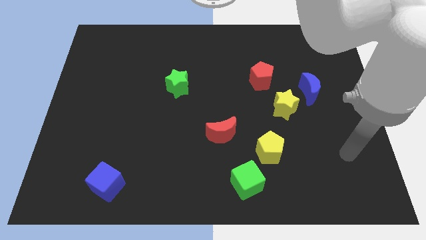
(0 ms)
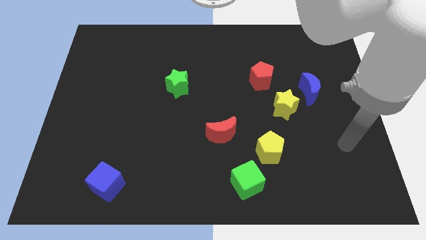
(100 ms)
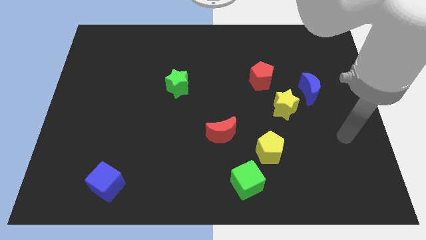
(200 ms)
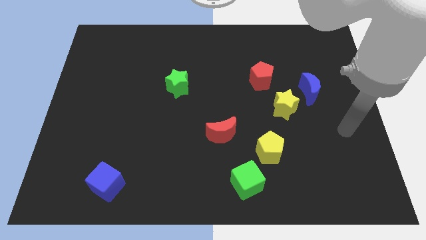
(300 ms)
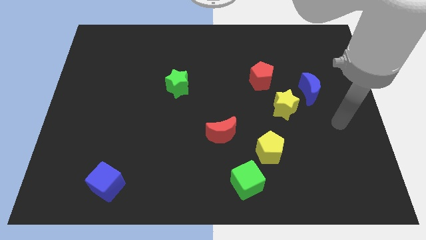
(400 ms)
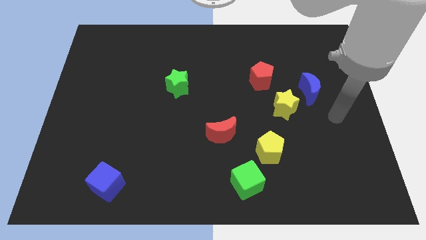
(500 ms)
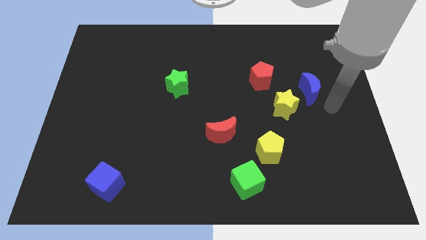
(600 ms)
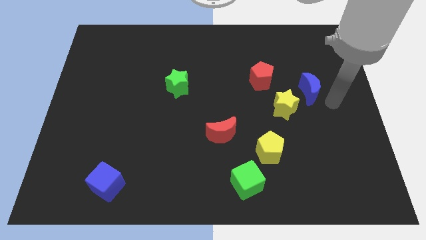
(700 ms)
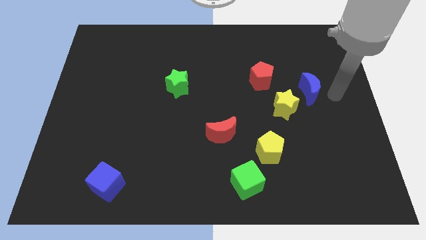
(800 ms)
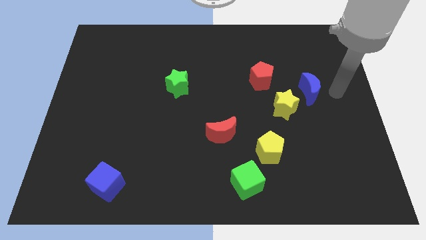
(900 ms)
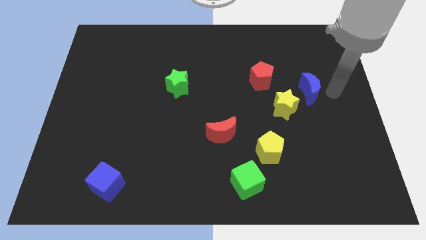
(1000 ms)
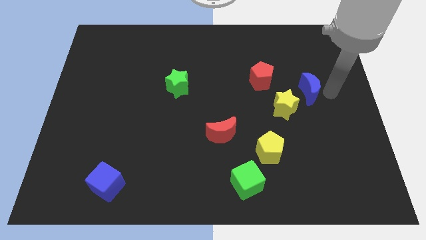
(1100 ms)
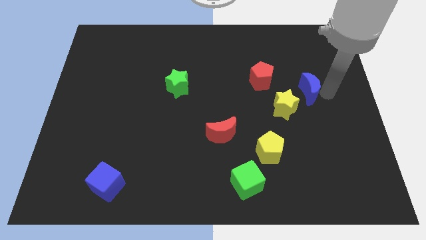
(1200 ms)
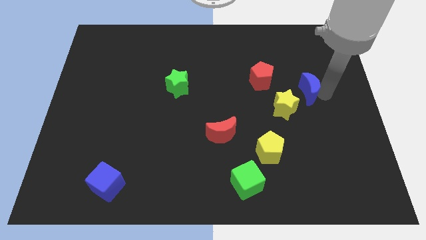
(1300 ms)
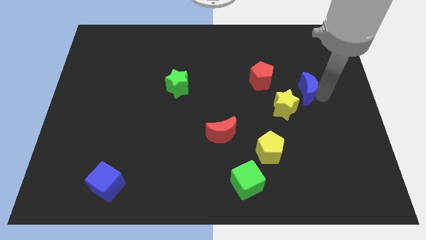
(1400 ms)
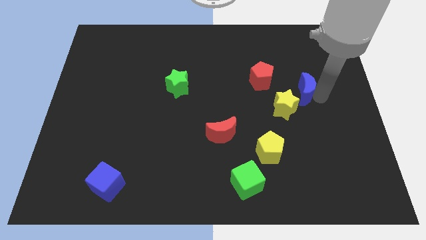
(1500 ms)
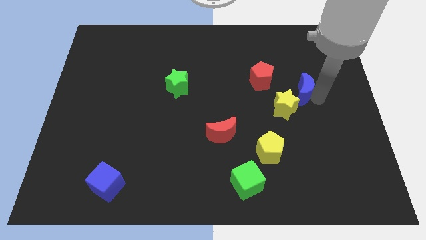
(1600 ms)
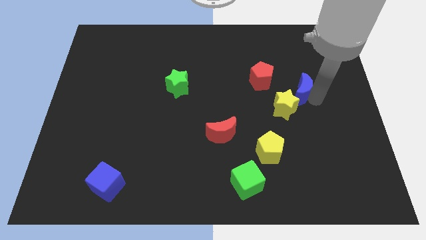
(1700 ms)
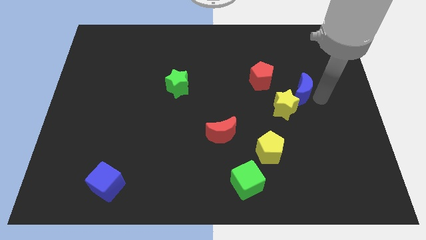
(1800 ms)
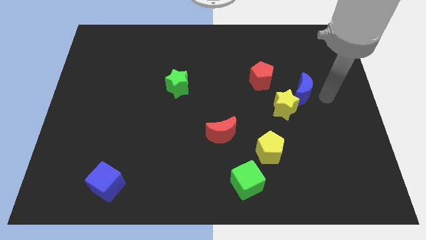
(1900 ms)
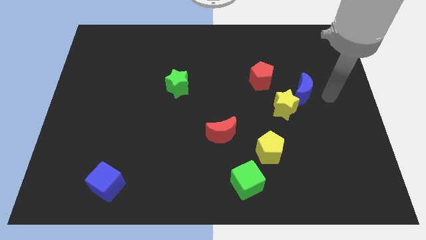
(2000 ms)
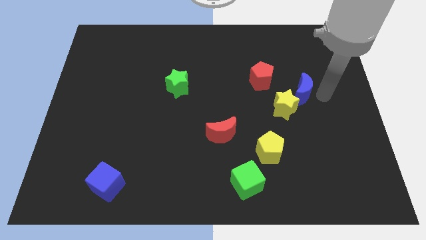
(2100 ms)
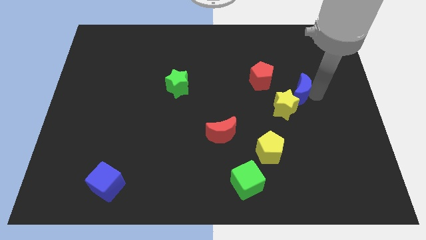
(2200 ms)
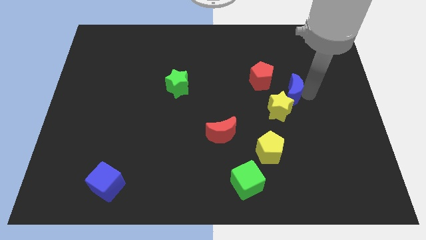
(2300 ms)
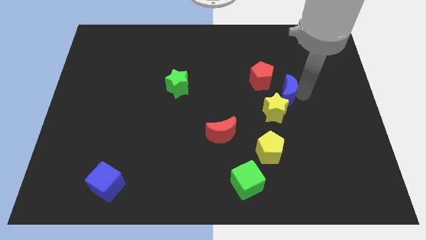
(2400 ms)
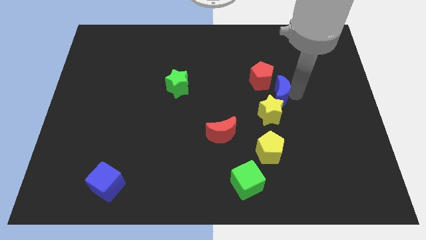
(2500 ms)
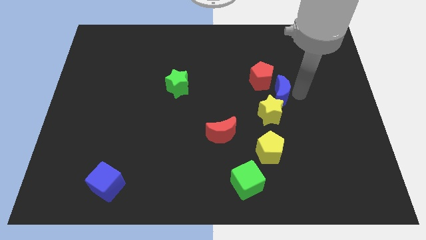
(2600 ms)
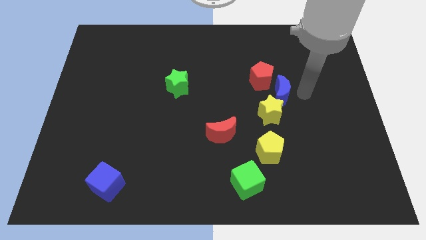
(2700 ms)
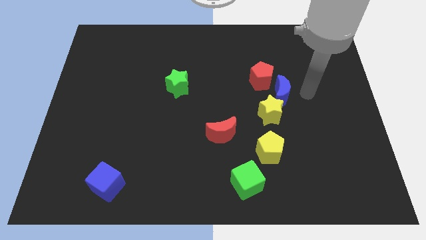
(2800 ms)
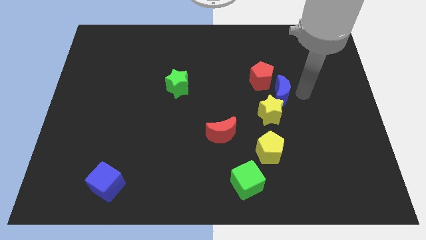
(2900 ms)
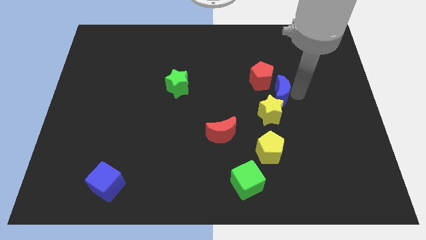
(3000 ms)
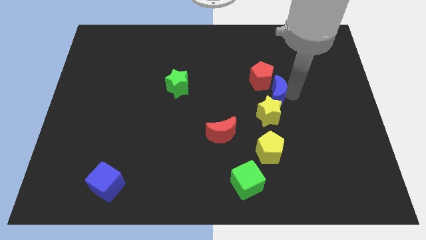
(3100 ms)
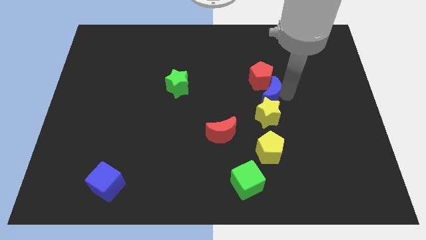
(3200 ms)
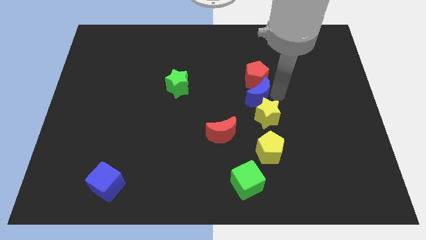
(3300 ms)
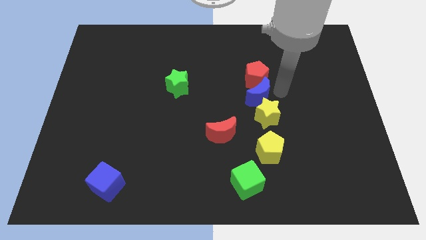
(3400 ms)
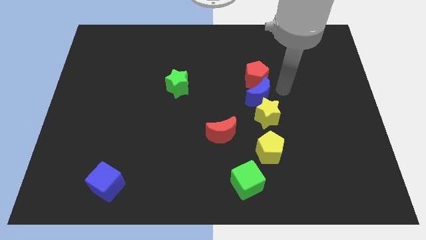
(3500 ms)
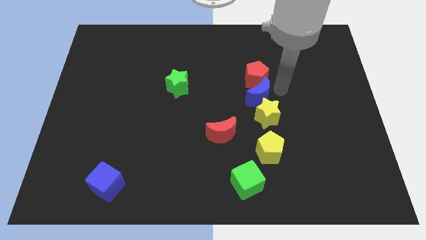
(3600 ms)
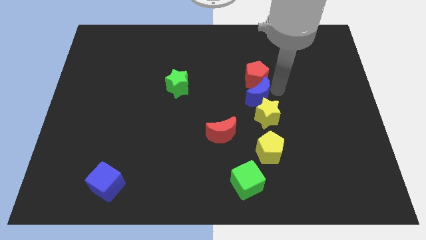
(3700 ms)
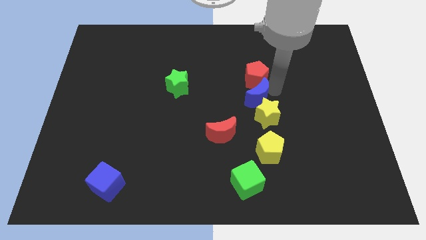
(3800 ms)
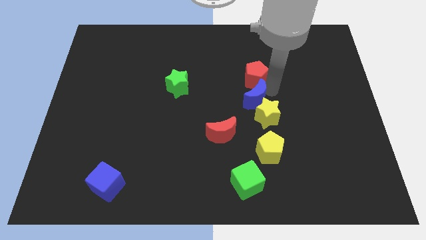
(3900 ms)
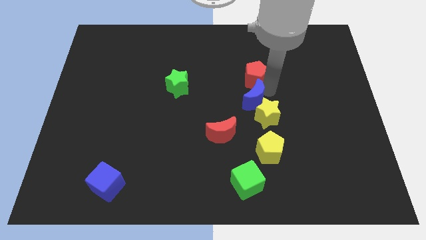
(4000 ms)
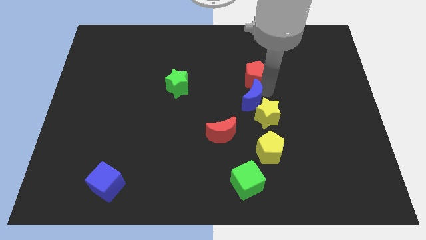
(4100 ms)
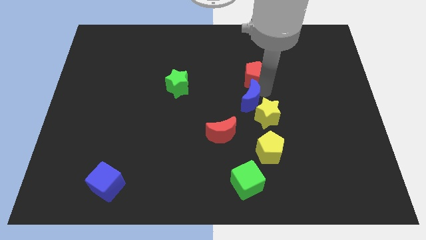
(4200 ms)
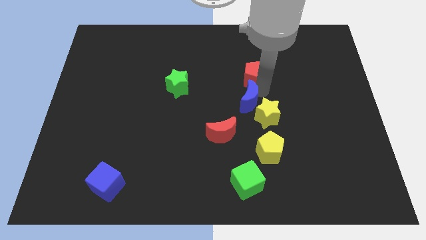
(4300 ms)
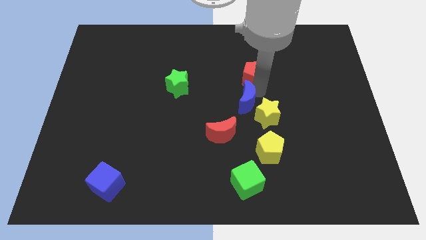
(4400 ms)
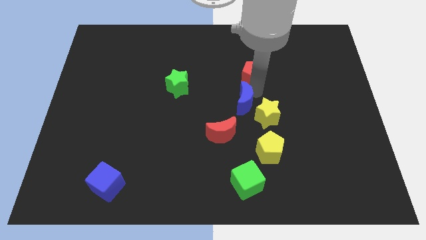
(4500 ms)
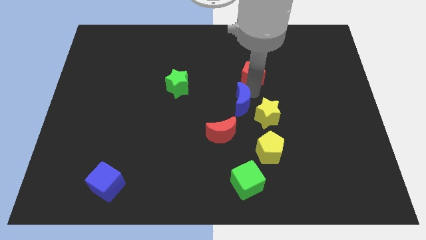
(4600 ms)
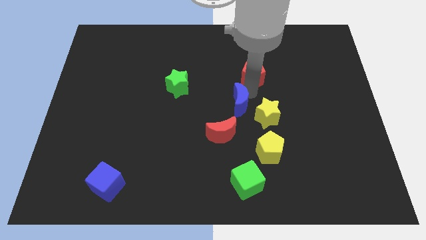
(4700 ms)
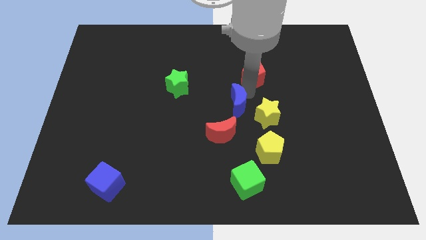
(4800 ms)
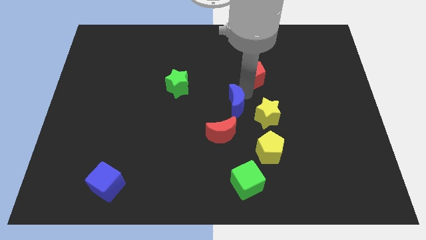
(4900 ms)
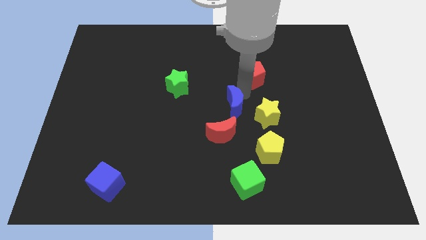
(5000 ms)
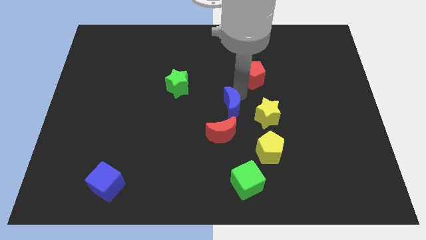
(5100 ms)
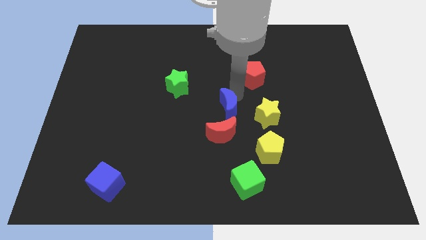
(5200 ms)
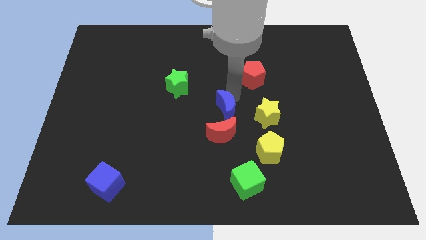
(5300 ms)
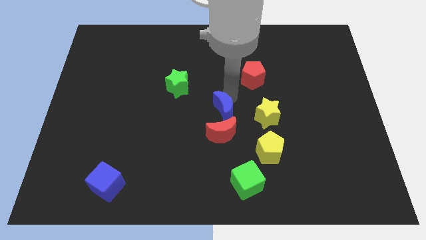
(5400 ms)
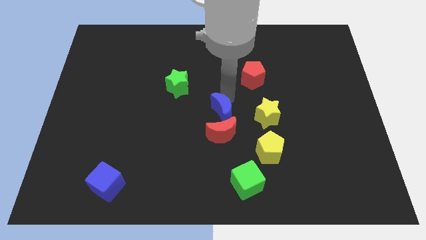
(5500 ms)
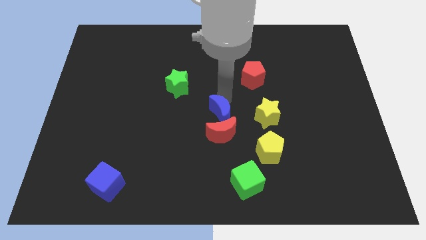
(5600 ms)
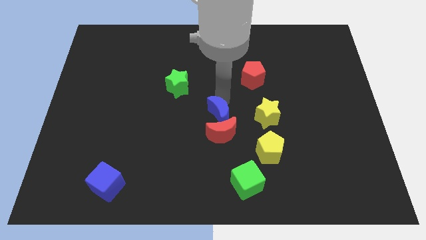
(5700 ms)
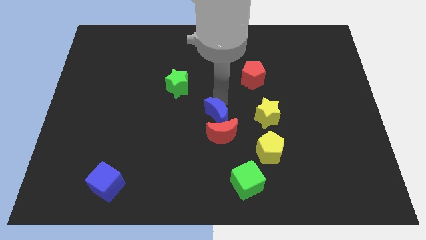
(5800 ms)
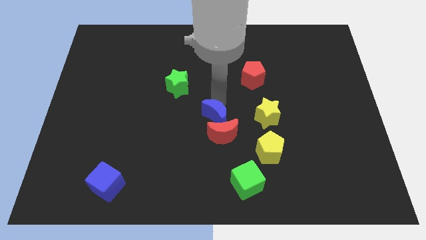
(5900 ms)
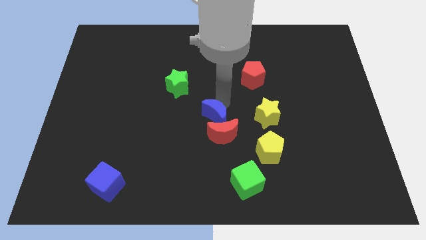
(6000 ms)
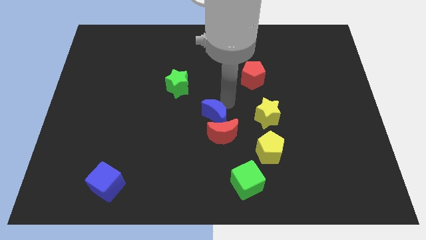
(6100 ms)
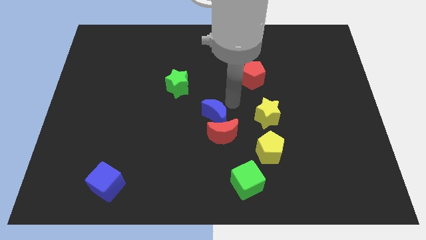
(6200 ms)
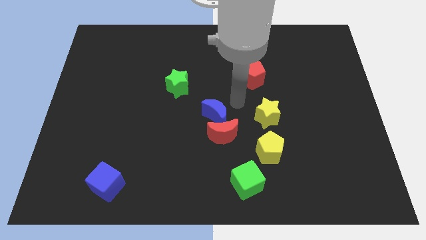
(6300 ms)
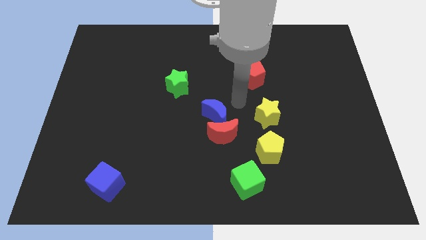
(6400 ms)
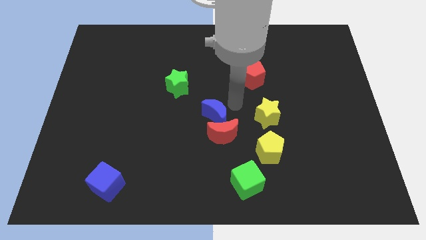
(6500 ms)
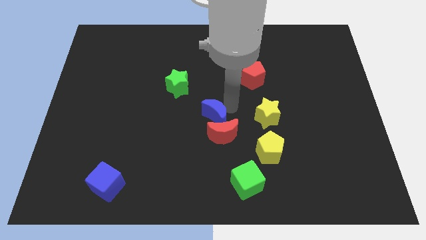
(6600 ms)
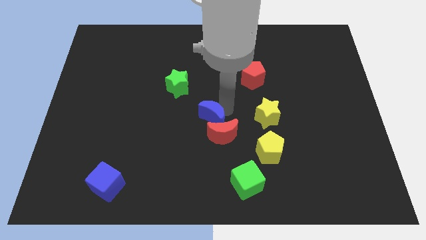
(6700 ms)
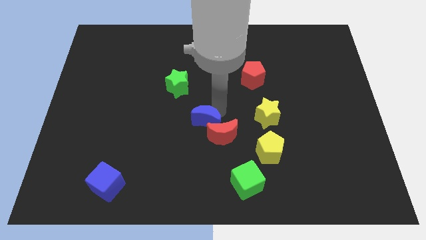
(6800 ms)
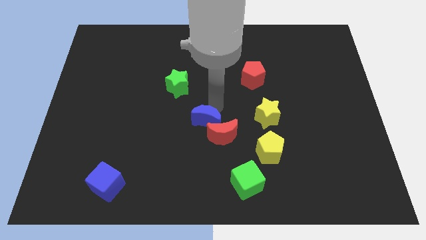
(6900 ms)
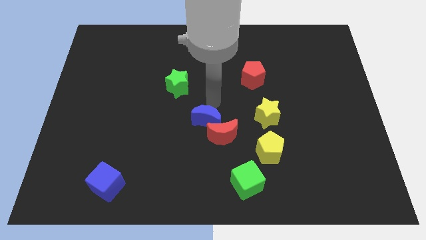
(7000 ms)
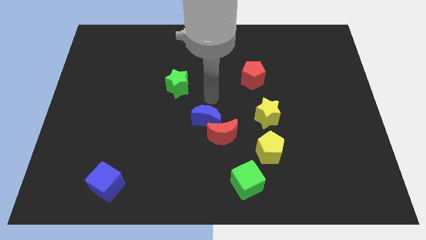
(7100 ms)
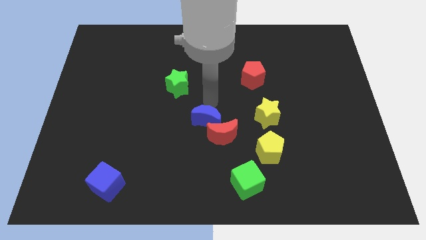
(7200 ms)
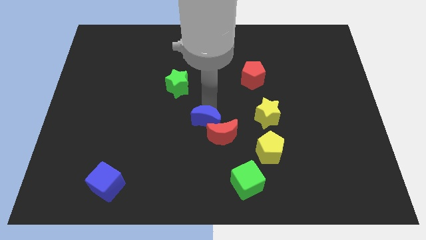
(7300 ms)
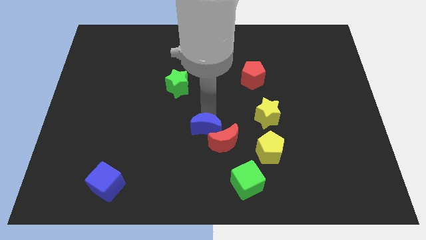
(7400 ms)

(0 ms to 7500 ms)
push the blue moon diagonally downwards and left

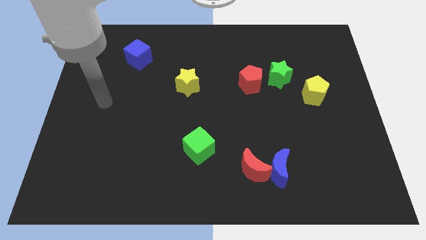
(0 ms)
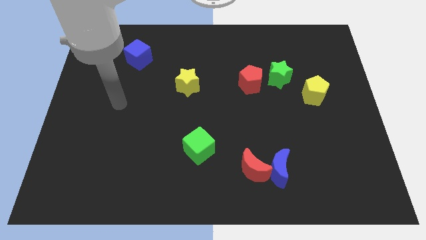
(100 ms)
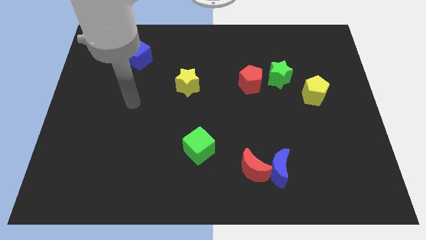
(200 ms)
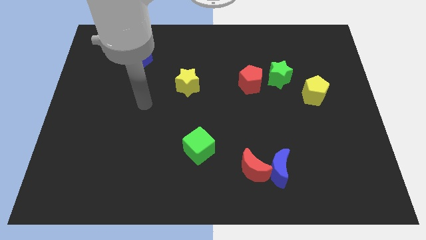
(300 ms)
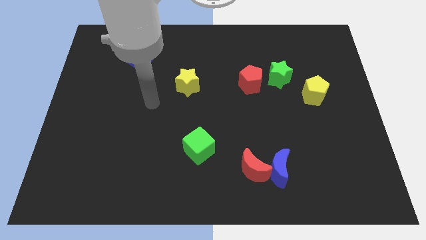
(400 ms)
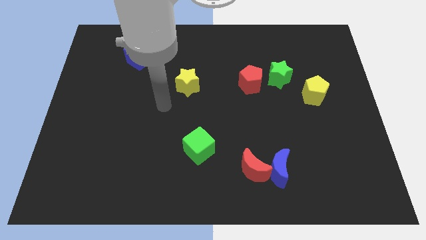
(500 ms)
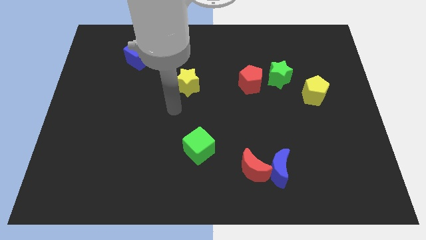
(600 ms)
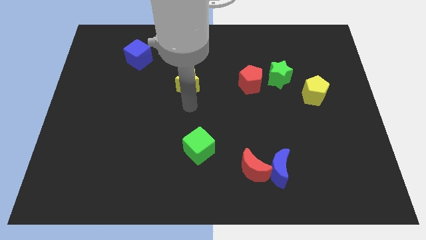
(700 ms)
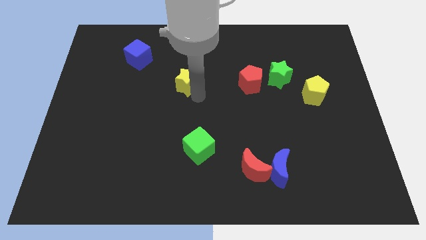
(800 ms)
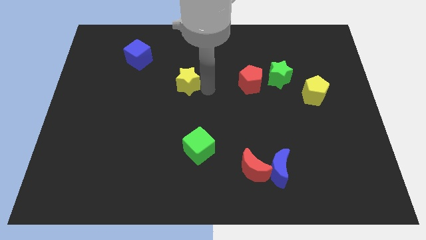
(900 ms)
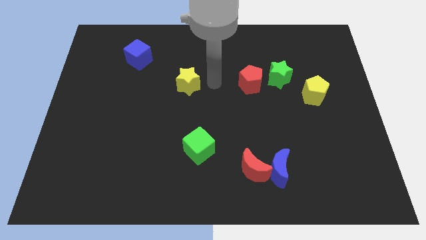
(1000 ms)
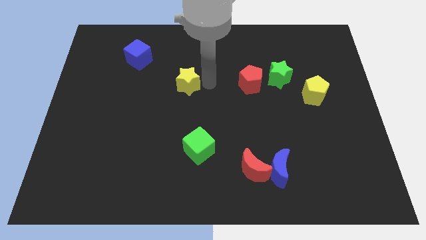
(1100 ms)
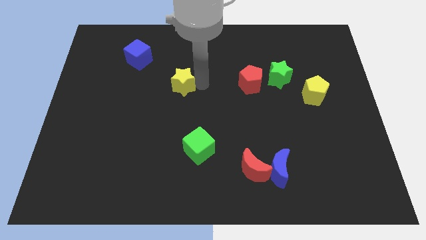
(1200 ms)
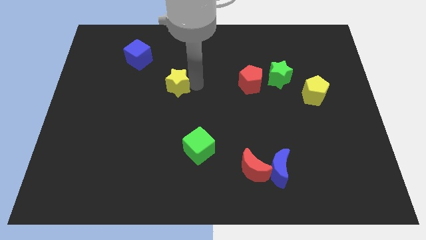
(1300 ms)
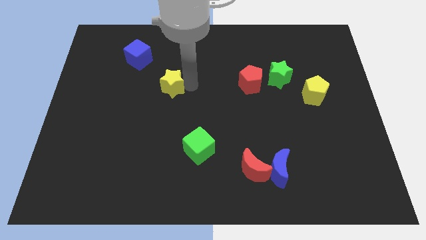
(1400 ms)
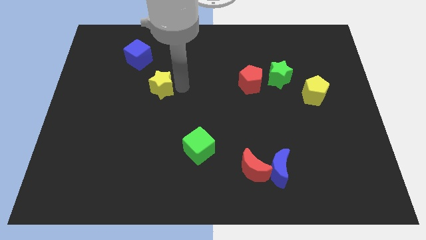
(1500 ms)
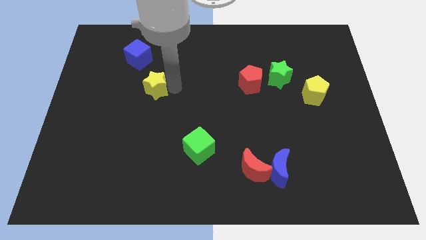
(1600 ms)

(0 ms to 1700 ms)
slightly push the yellow star left
